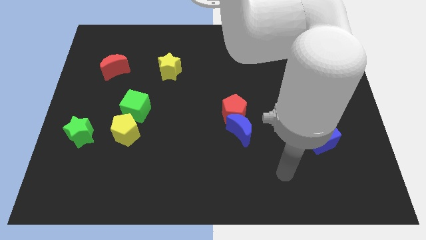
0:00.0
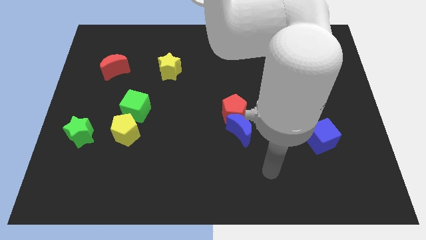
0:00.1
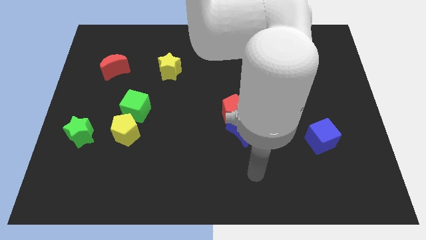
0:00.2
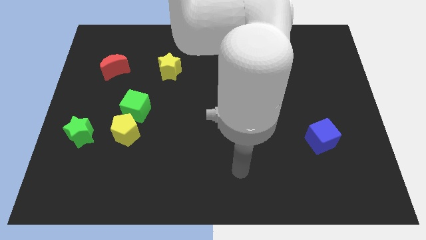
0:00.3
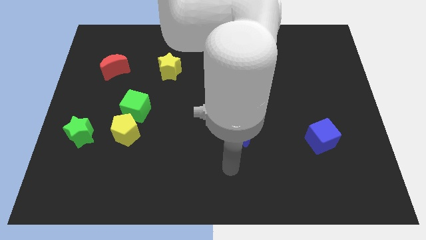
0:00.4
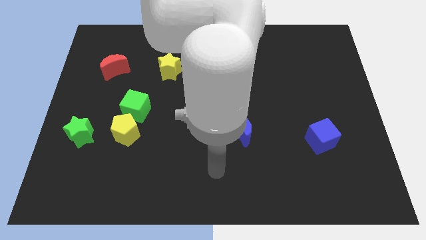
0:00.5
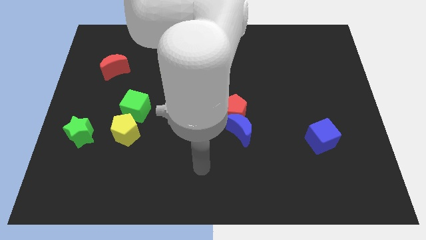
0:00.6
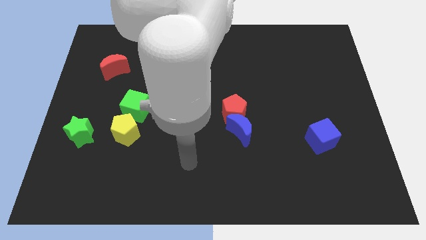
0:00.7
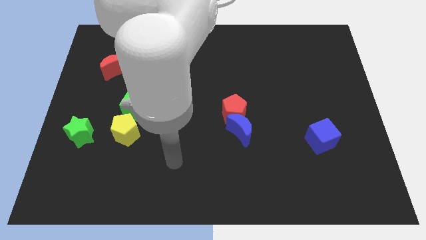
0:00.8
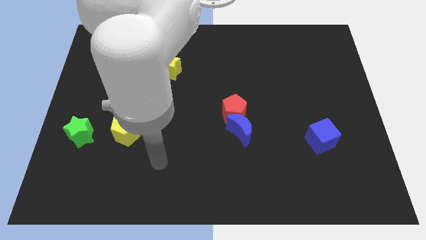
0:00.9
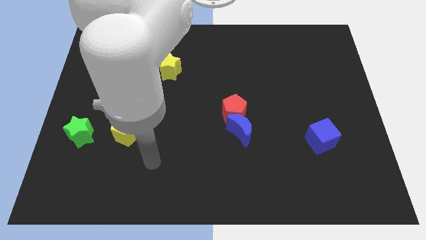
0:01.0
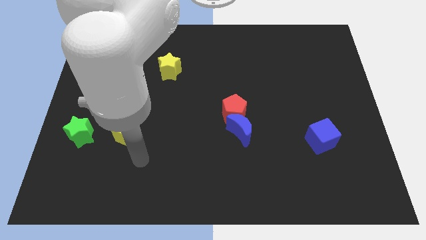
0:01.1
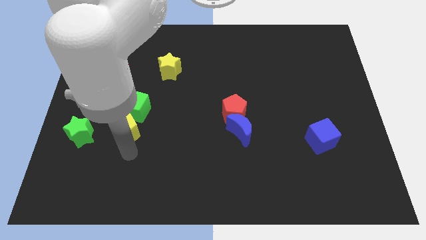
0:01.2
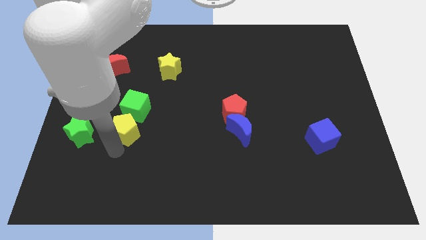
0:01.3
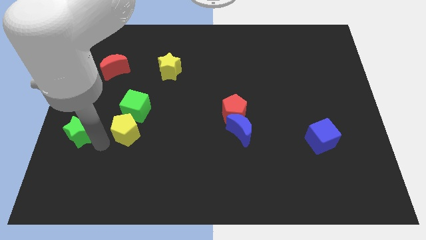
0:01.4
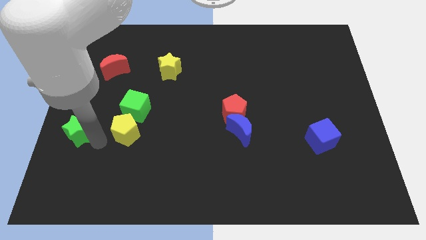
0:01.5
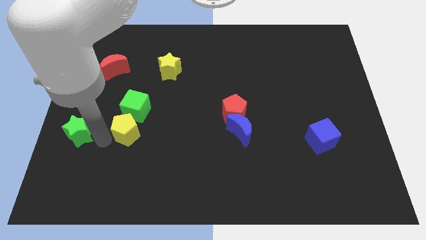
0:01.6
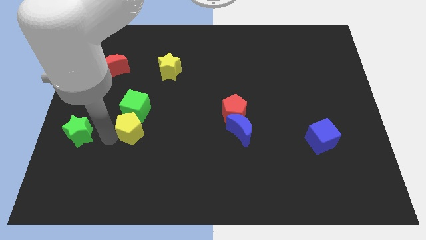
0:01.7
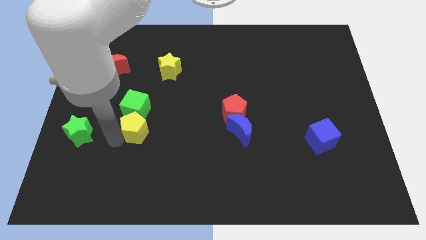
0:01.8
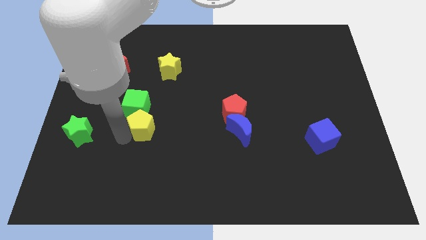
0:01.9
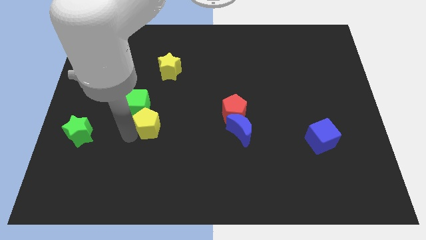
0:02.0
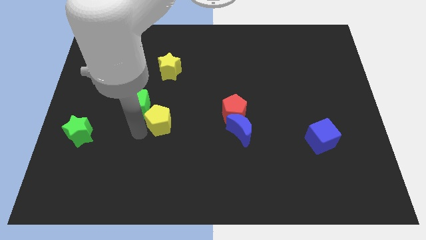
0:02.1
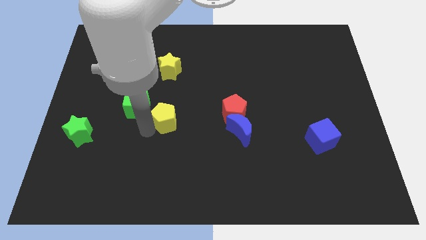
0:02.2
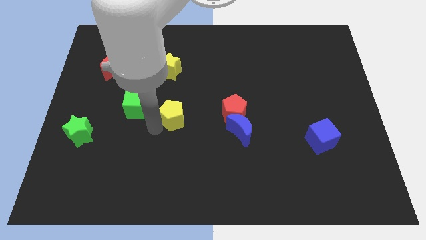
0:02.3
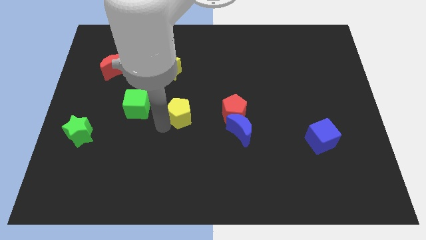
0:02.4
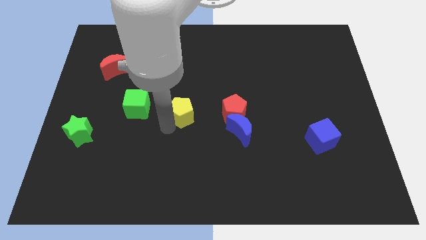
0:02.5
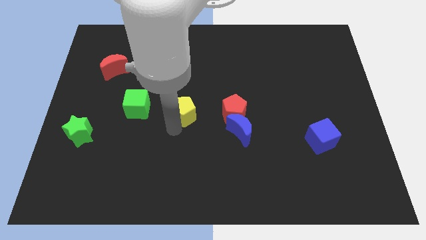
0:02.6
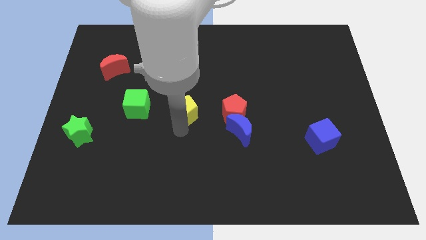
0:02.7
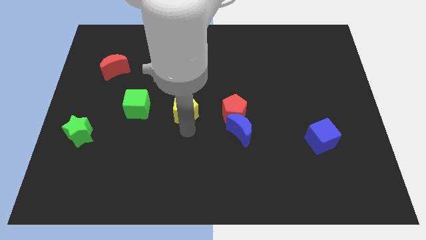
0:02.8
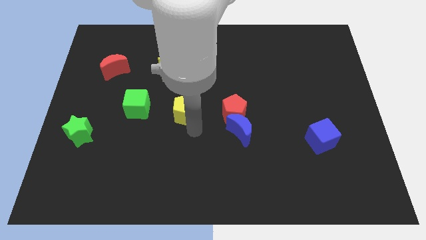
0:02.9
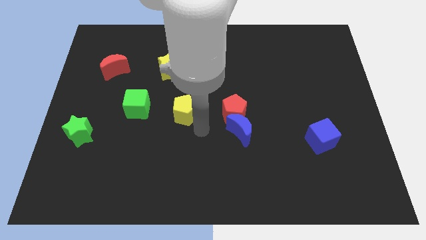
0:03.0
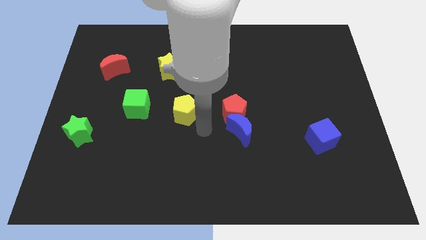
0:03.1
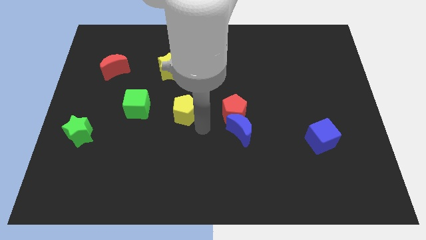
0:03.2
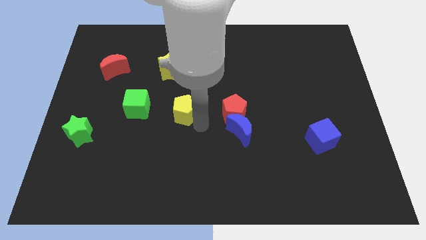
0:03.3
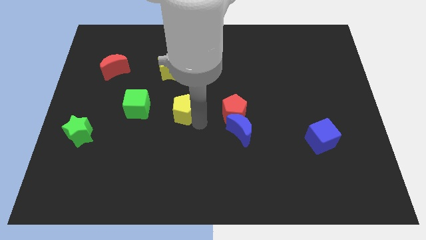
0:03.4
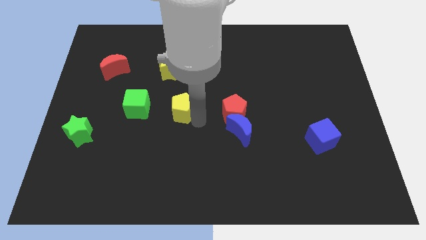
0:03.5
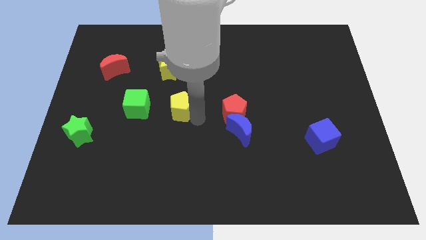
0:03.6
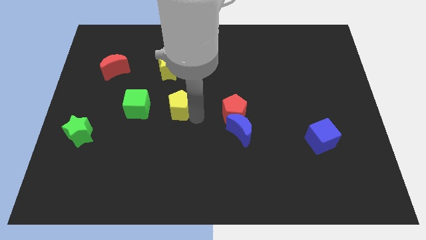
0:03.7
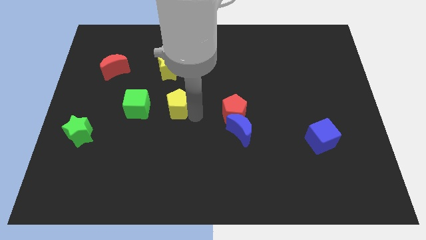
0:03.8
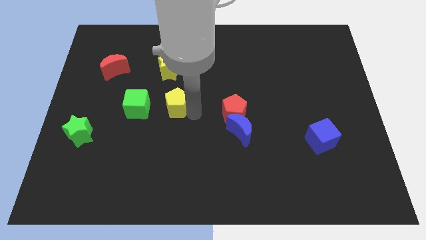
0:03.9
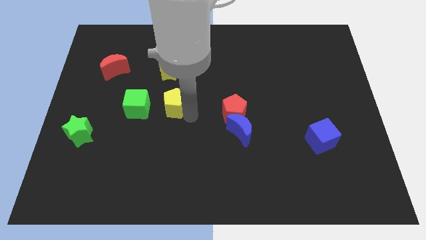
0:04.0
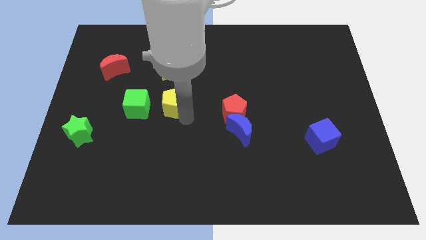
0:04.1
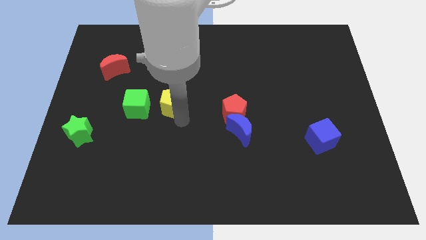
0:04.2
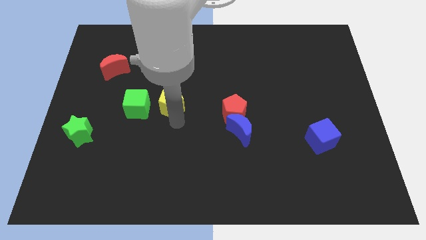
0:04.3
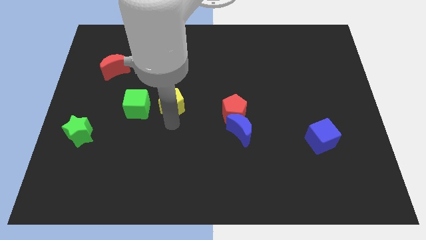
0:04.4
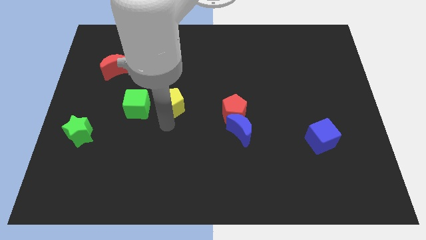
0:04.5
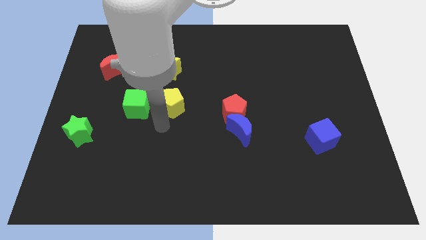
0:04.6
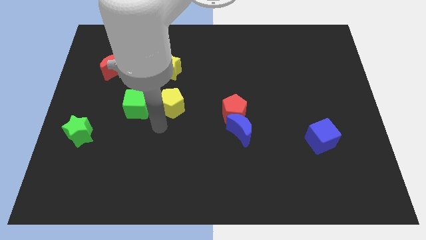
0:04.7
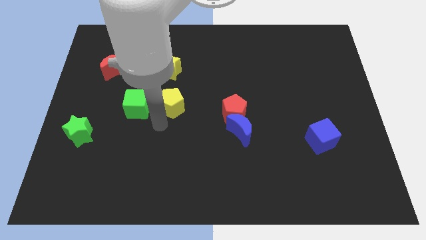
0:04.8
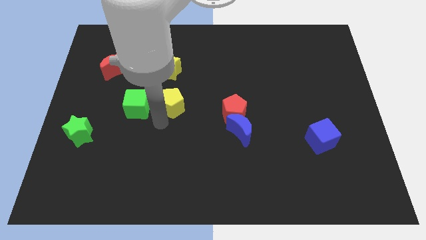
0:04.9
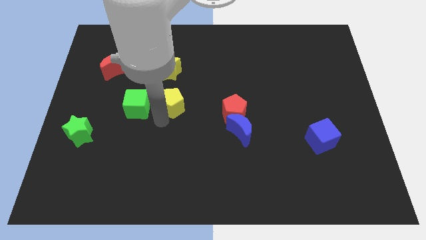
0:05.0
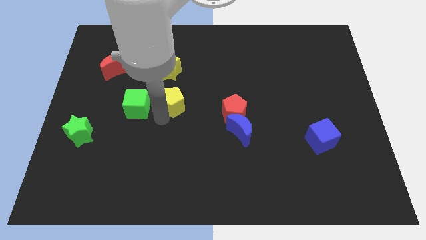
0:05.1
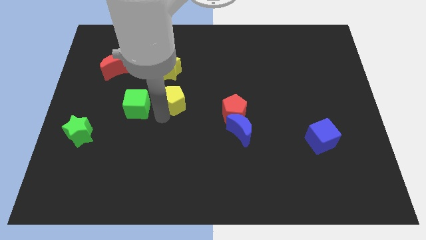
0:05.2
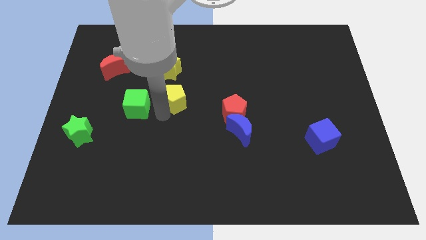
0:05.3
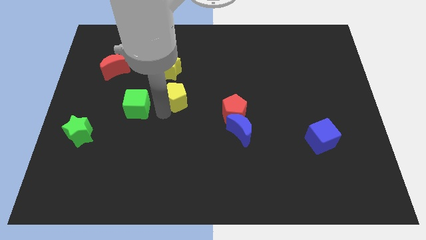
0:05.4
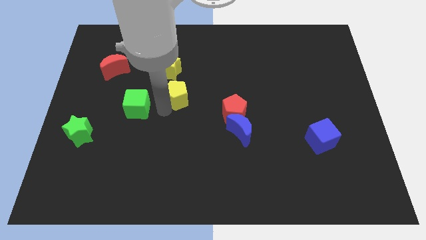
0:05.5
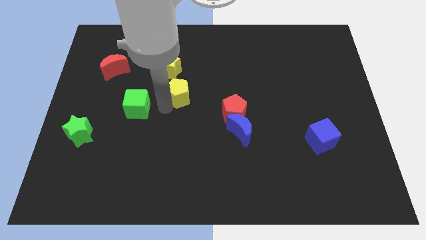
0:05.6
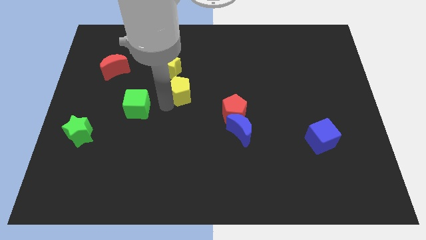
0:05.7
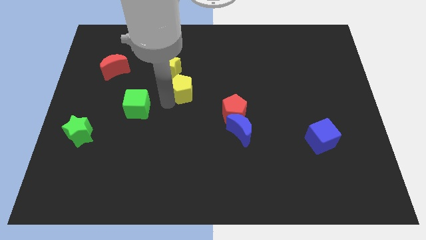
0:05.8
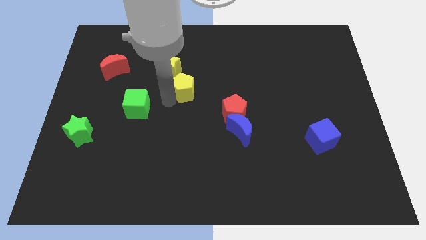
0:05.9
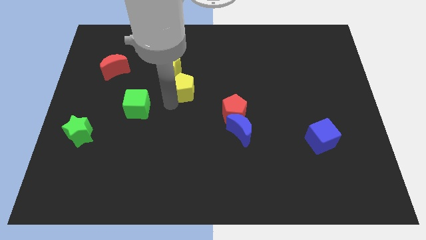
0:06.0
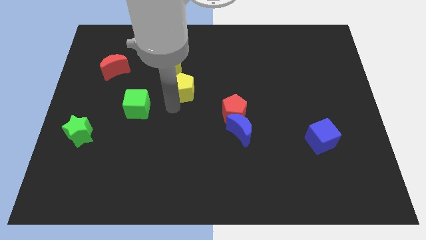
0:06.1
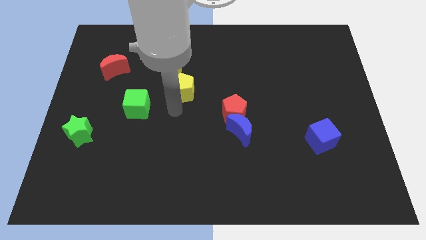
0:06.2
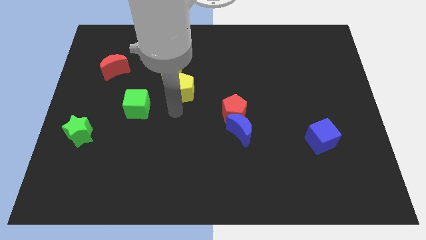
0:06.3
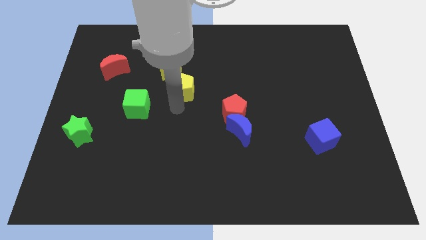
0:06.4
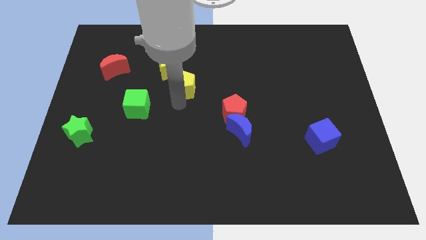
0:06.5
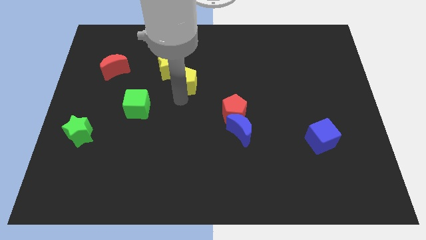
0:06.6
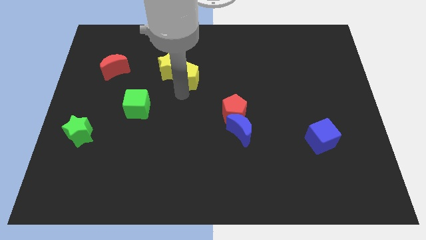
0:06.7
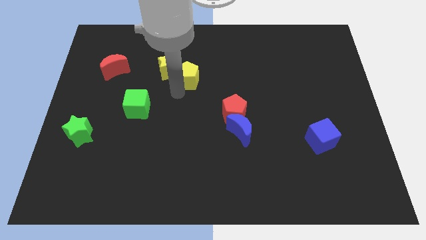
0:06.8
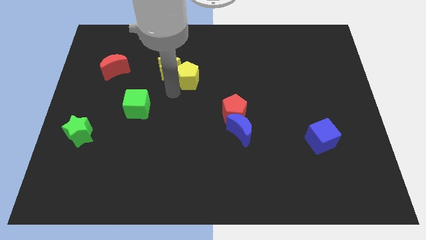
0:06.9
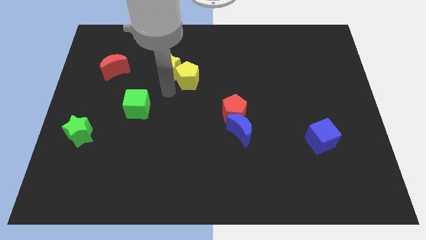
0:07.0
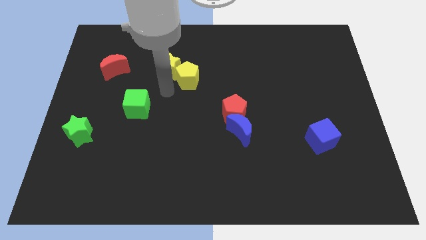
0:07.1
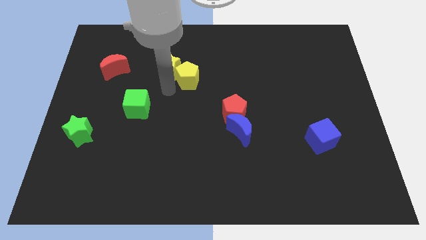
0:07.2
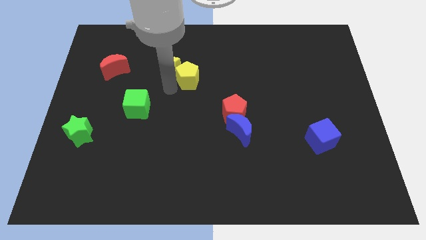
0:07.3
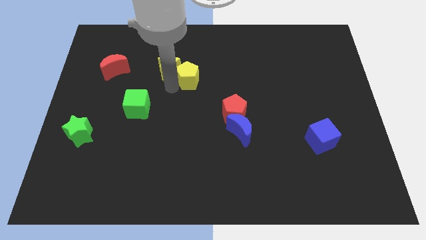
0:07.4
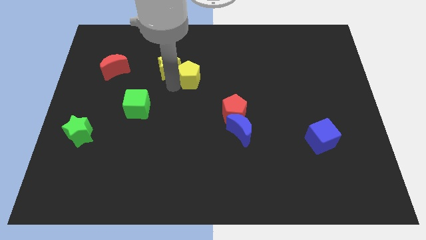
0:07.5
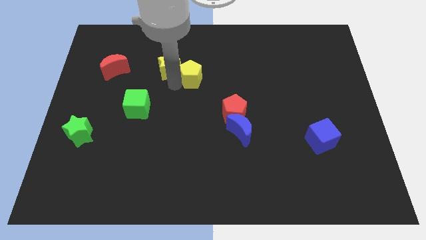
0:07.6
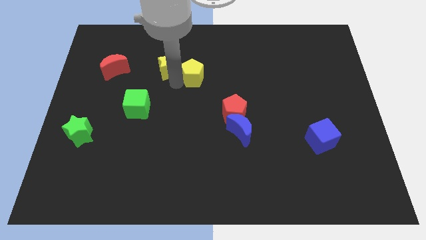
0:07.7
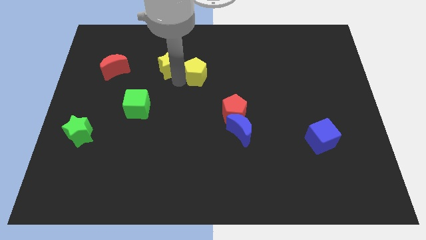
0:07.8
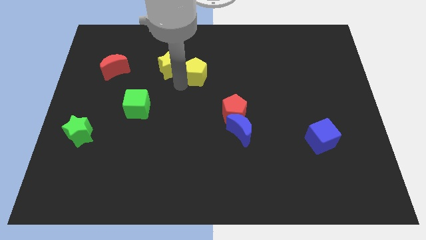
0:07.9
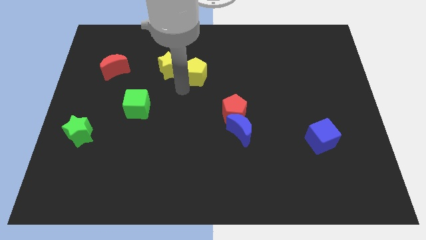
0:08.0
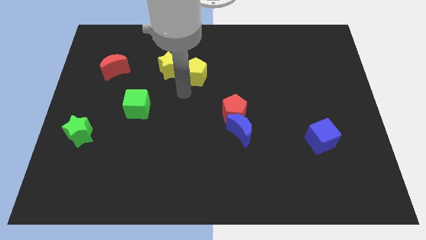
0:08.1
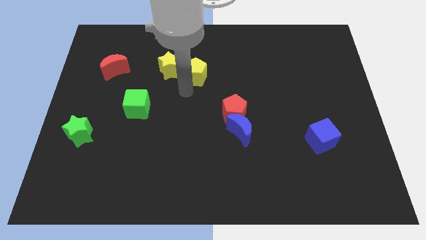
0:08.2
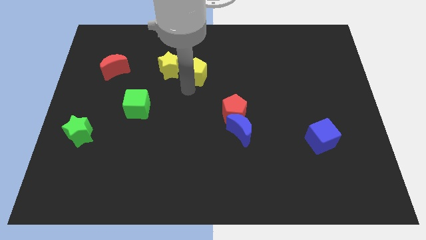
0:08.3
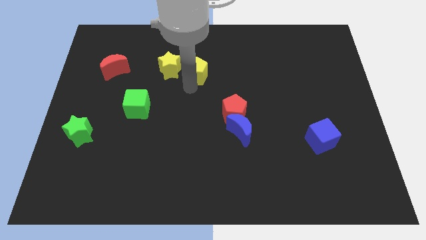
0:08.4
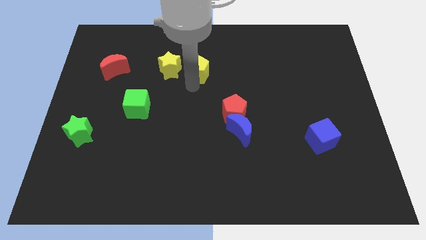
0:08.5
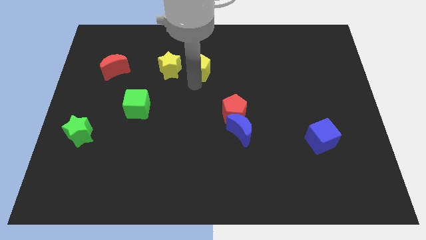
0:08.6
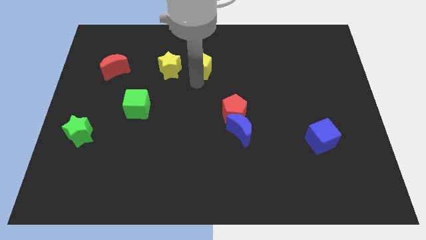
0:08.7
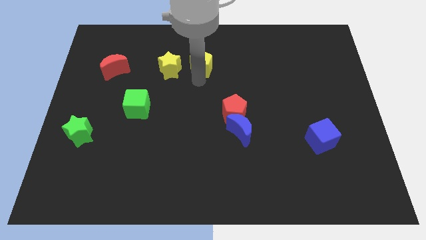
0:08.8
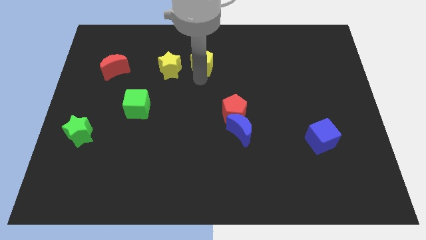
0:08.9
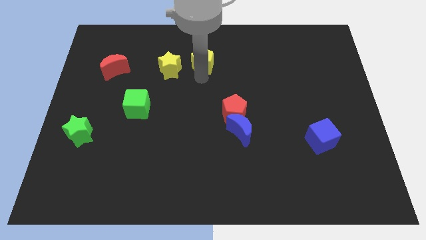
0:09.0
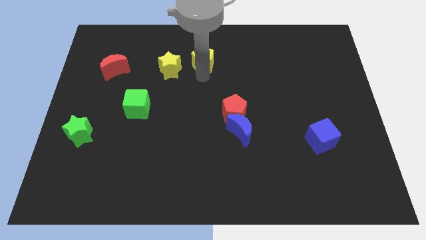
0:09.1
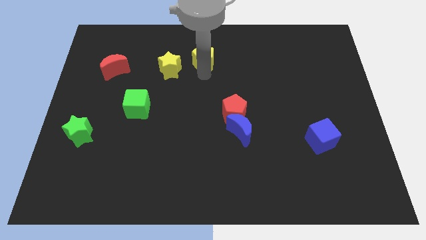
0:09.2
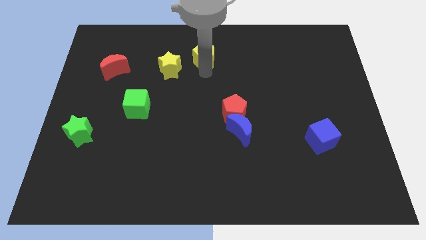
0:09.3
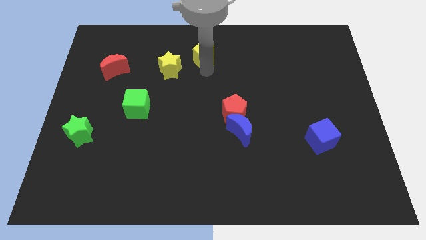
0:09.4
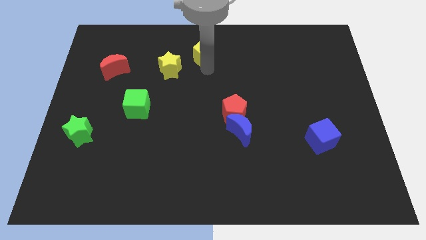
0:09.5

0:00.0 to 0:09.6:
move the yellow pentagon to the top side
